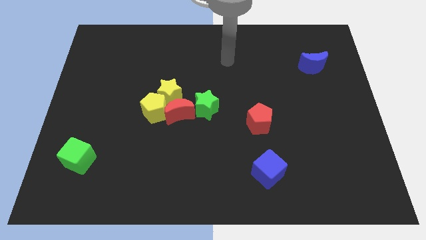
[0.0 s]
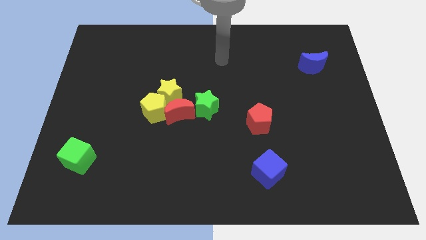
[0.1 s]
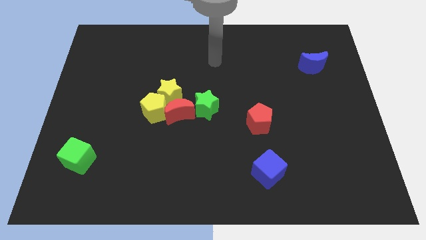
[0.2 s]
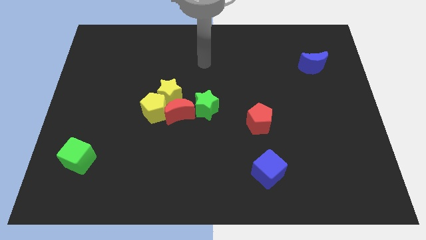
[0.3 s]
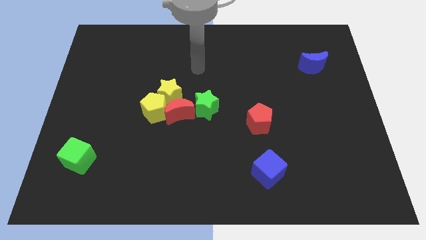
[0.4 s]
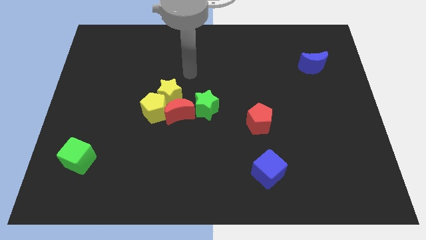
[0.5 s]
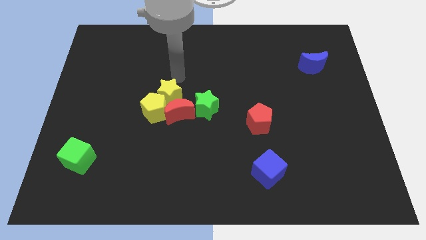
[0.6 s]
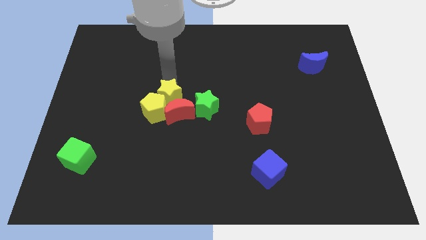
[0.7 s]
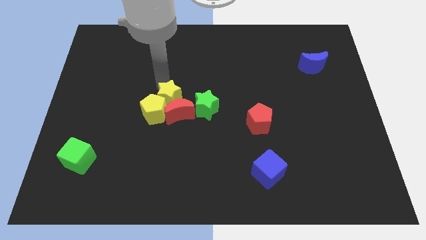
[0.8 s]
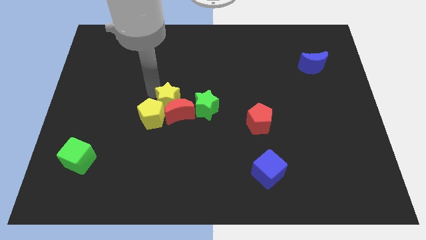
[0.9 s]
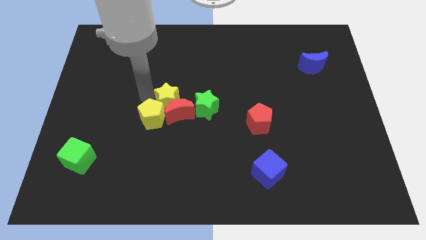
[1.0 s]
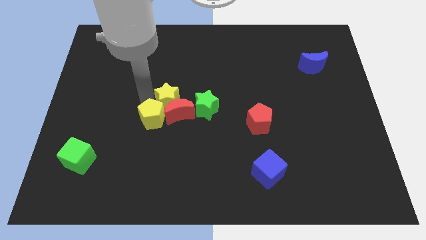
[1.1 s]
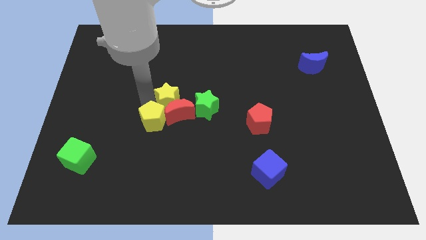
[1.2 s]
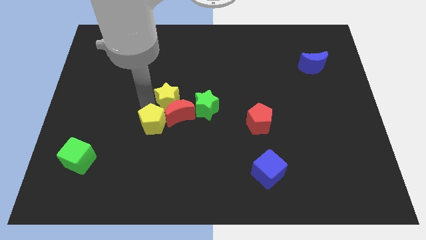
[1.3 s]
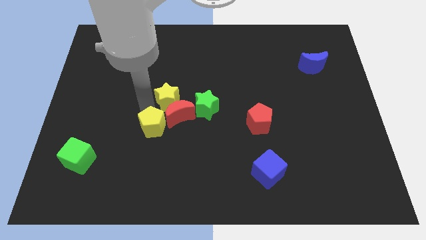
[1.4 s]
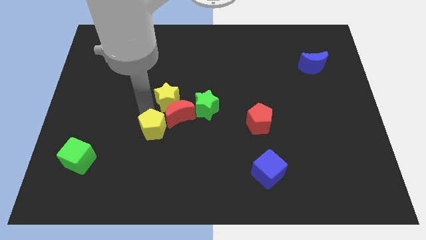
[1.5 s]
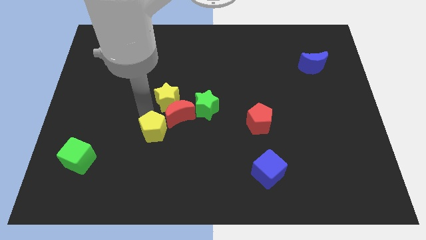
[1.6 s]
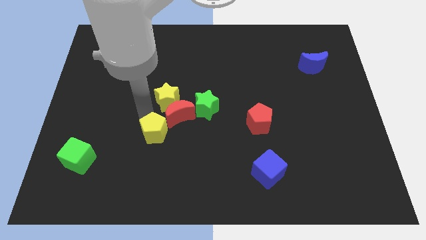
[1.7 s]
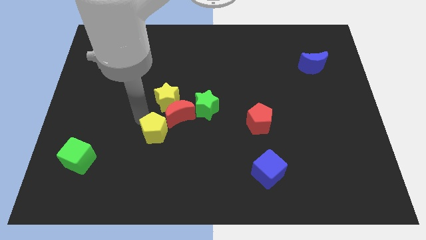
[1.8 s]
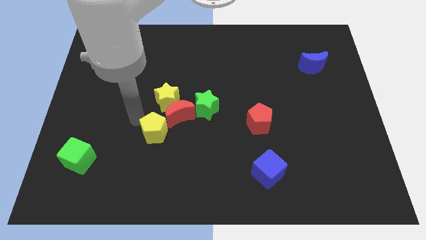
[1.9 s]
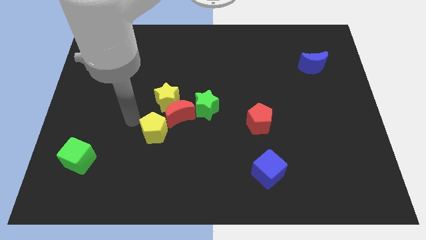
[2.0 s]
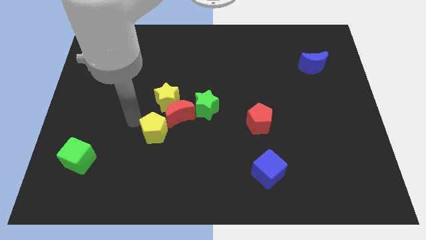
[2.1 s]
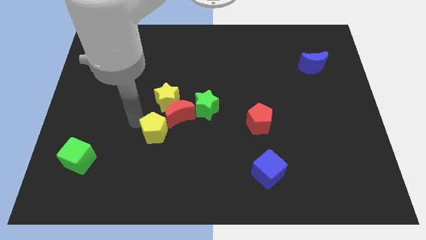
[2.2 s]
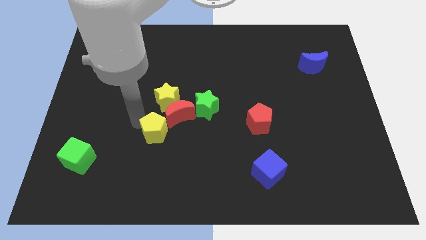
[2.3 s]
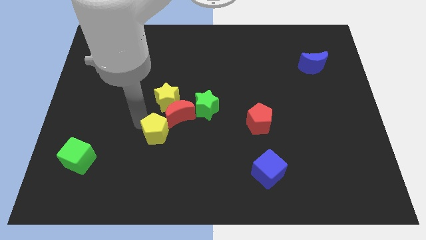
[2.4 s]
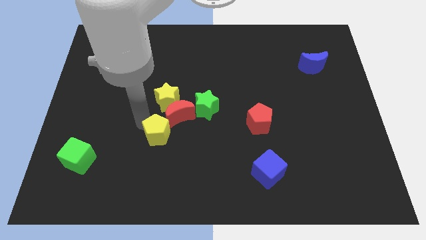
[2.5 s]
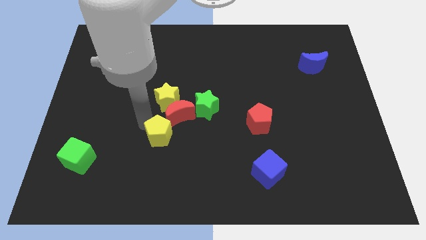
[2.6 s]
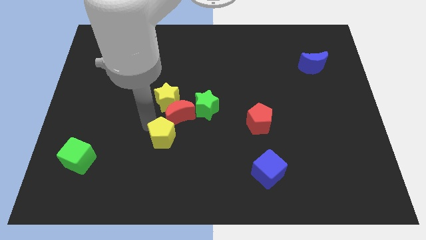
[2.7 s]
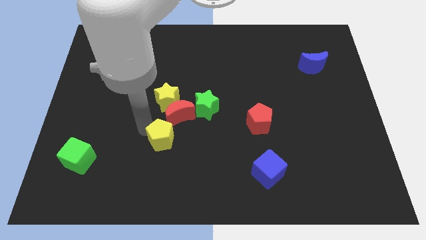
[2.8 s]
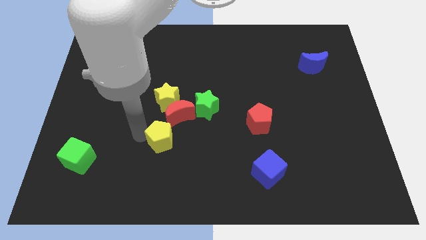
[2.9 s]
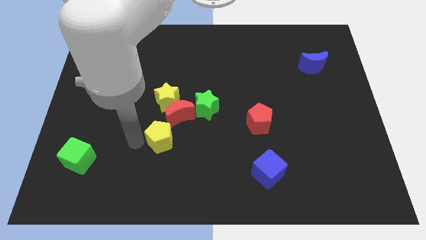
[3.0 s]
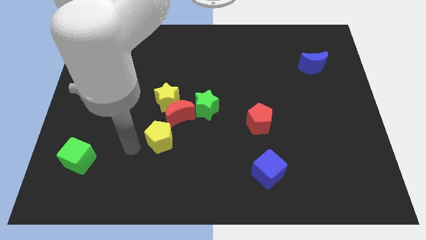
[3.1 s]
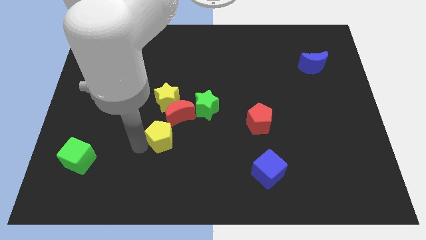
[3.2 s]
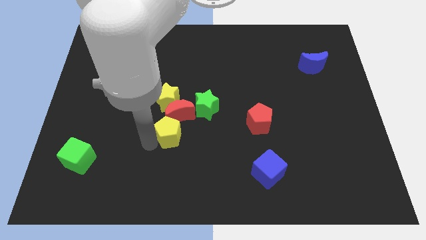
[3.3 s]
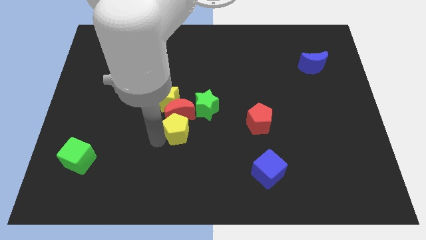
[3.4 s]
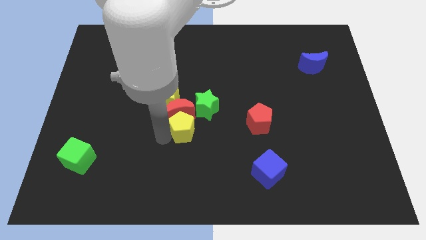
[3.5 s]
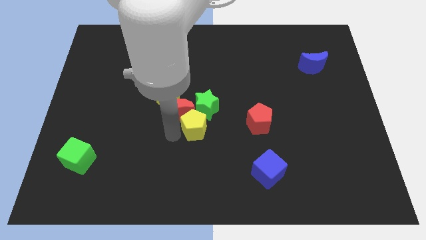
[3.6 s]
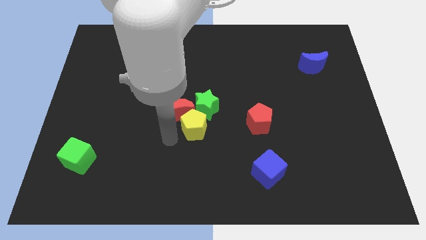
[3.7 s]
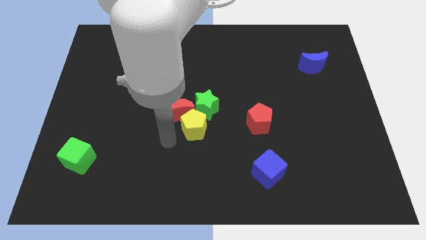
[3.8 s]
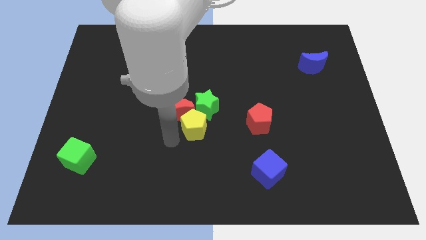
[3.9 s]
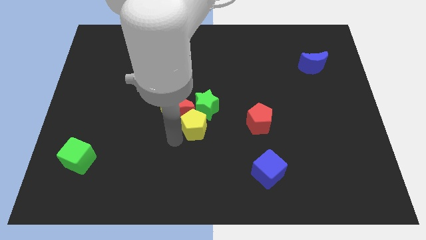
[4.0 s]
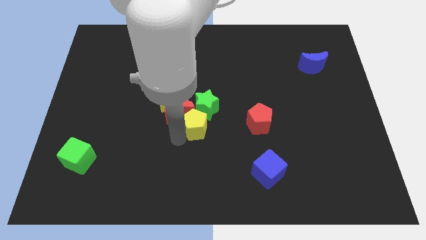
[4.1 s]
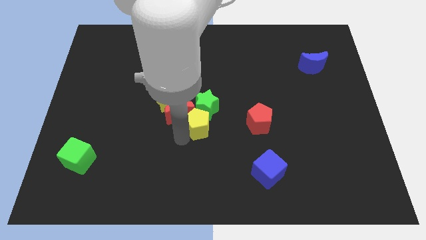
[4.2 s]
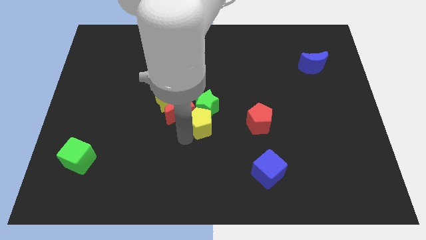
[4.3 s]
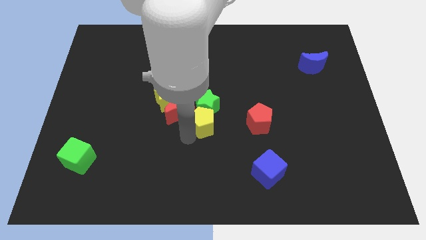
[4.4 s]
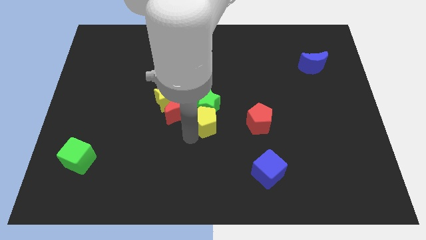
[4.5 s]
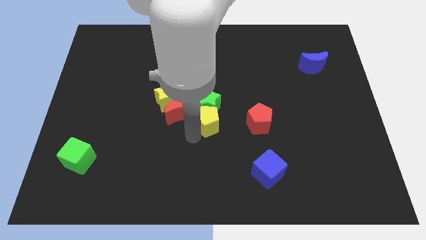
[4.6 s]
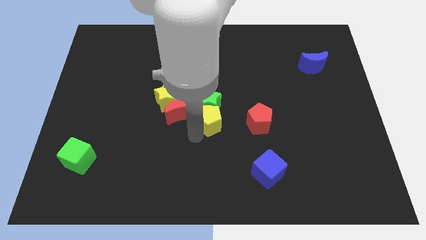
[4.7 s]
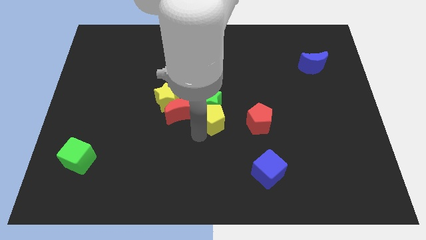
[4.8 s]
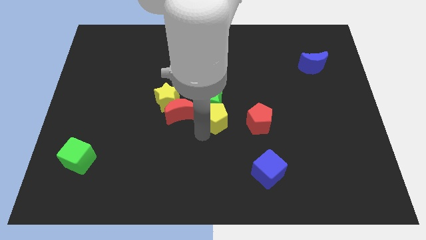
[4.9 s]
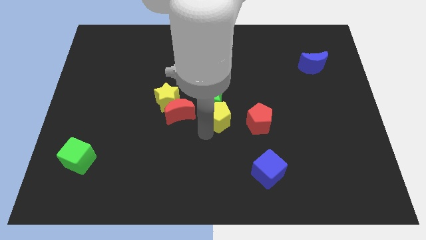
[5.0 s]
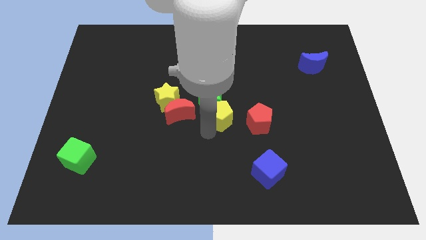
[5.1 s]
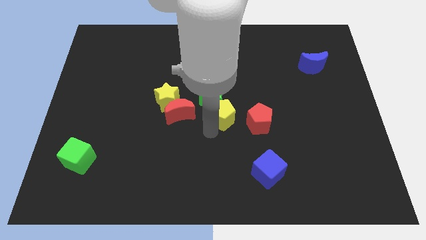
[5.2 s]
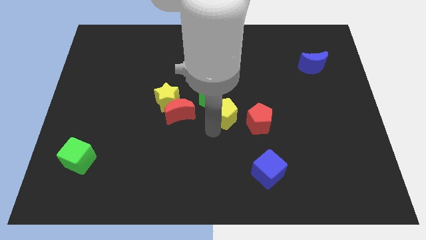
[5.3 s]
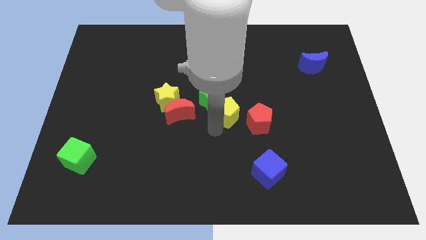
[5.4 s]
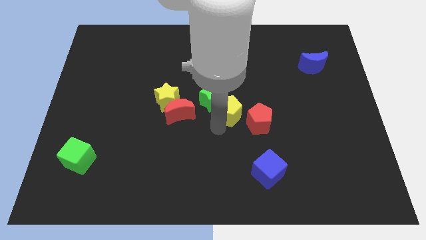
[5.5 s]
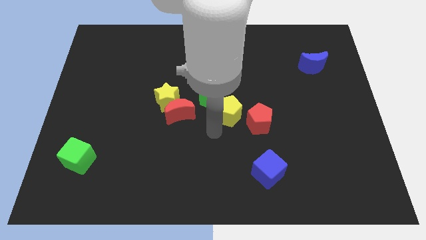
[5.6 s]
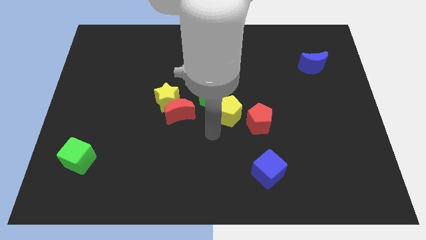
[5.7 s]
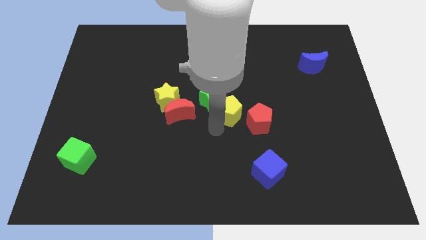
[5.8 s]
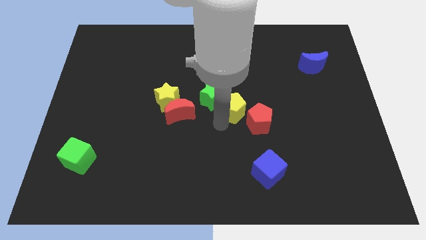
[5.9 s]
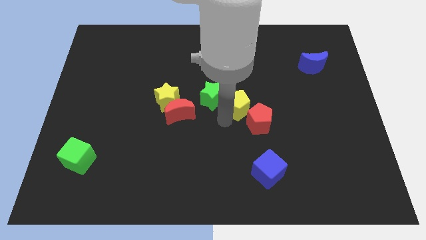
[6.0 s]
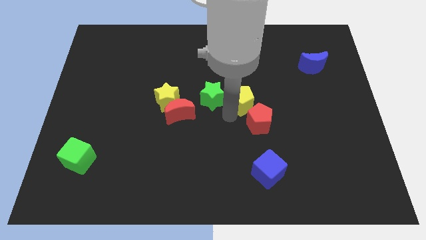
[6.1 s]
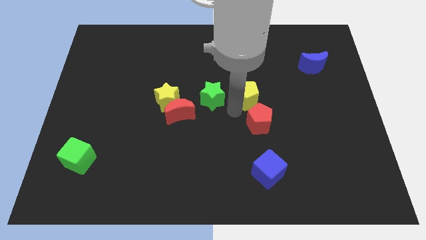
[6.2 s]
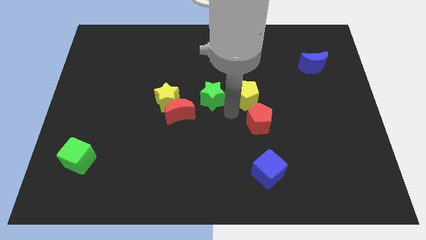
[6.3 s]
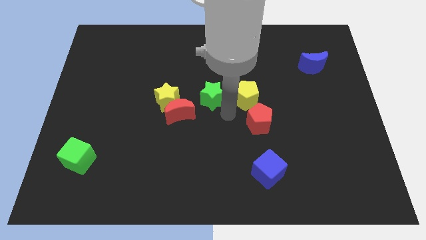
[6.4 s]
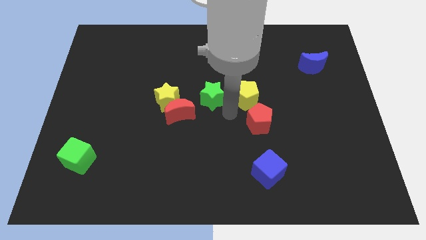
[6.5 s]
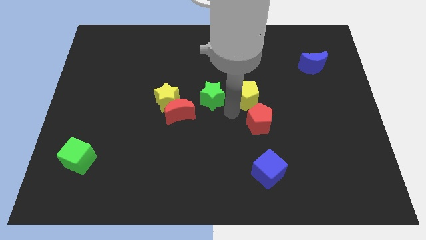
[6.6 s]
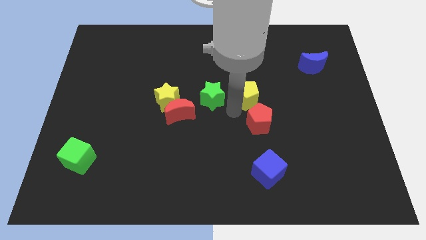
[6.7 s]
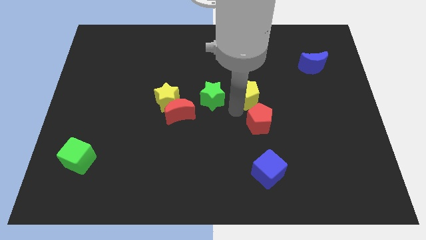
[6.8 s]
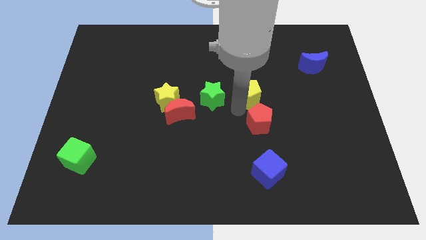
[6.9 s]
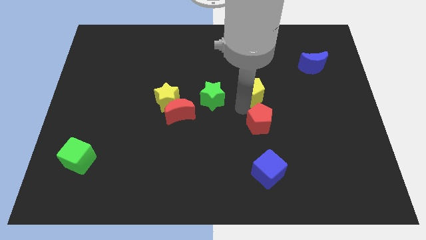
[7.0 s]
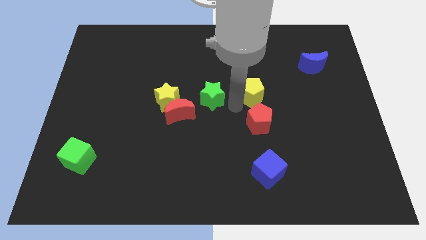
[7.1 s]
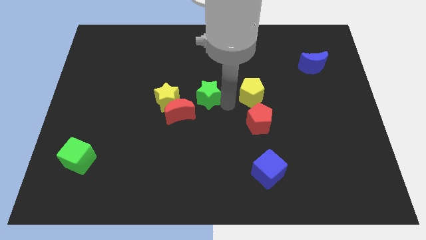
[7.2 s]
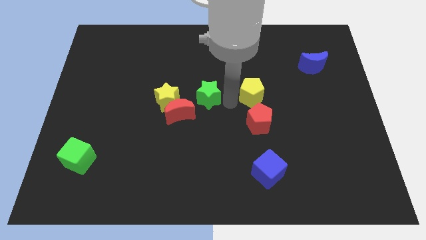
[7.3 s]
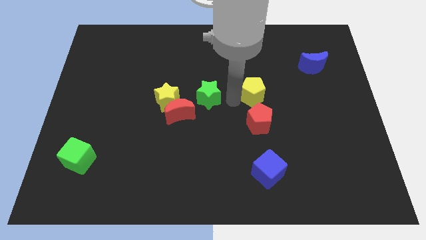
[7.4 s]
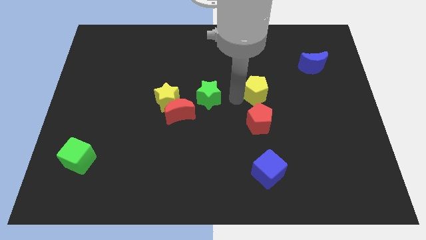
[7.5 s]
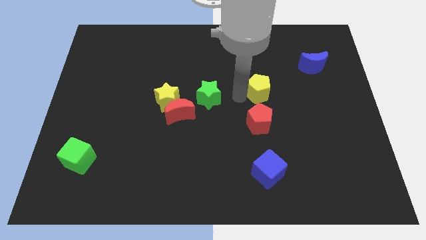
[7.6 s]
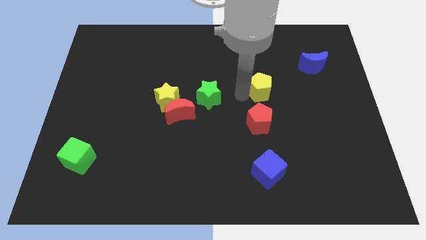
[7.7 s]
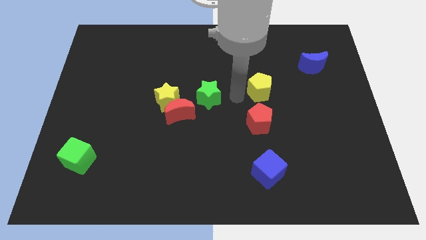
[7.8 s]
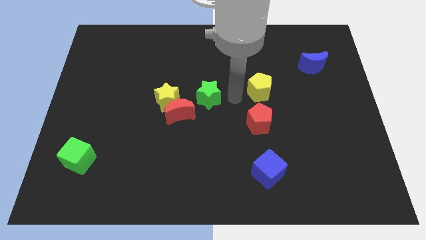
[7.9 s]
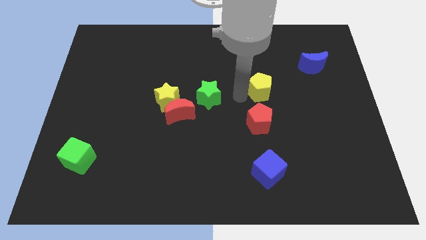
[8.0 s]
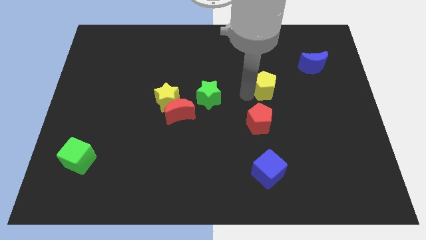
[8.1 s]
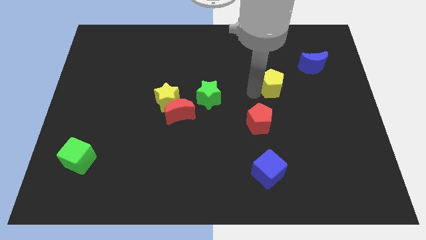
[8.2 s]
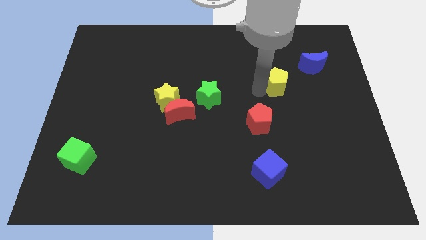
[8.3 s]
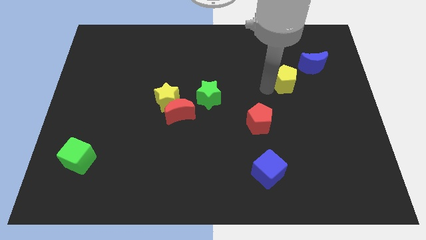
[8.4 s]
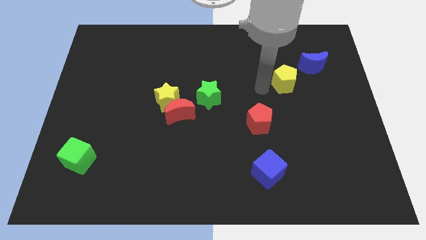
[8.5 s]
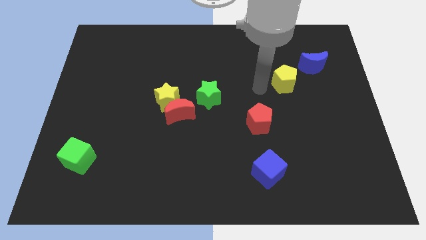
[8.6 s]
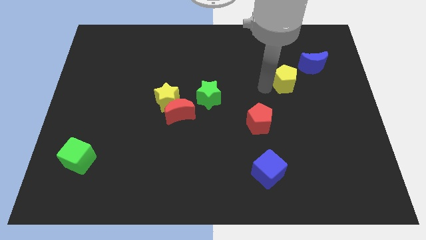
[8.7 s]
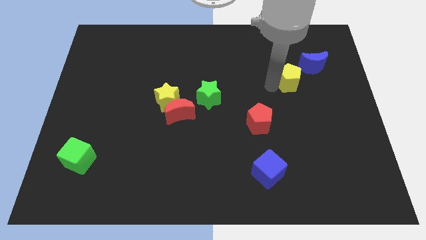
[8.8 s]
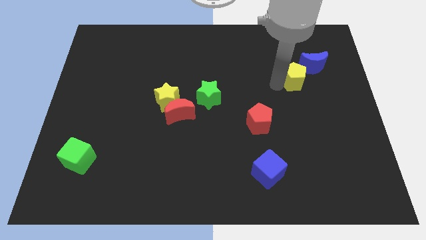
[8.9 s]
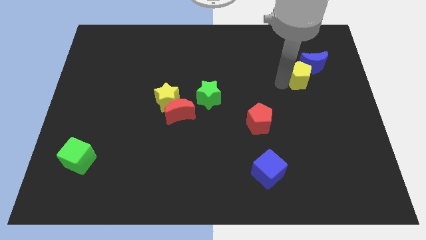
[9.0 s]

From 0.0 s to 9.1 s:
put the yellow pentagon to the blue moon
